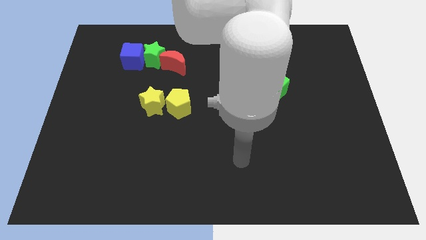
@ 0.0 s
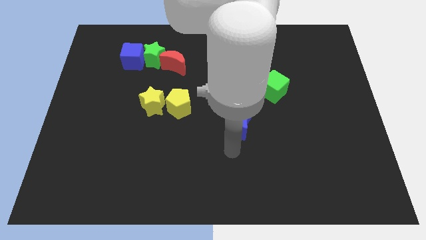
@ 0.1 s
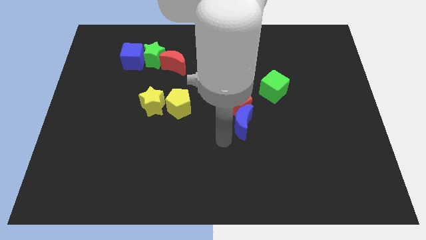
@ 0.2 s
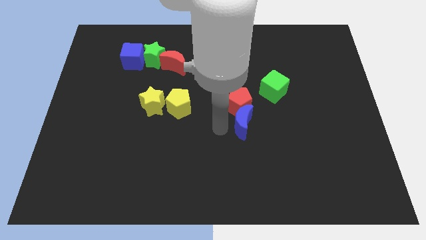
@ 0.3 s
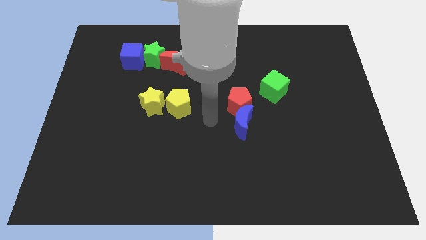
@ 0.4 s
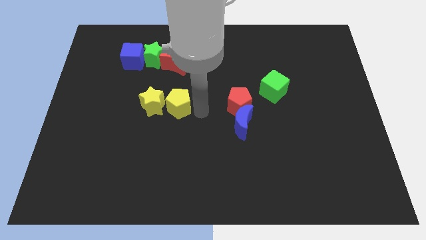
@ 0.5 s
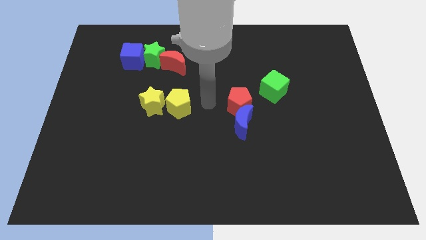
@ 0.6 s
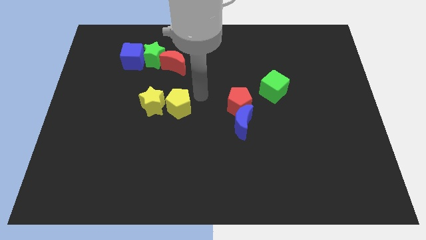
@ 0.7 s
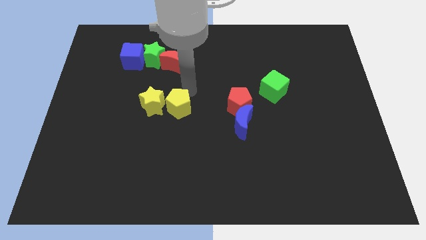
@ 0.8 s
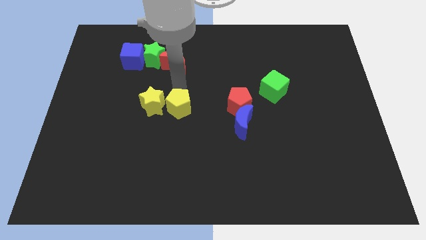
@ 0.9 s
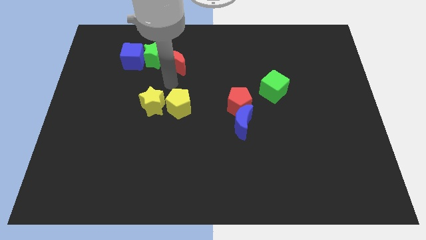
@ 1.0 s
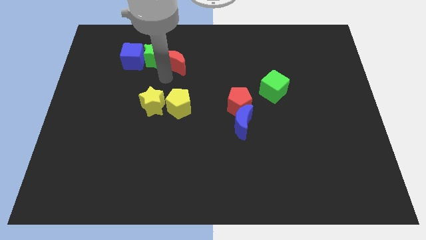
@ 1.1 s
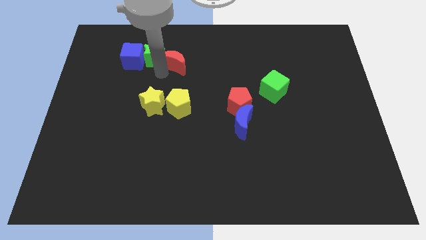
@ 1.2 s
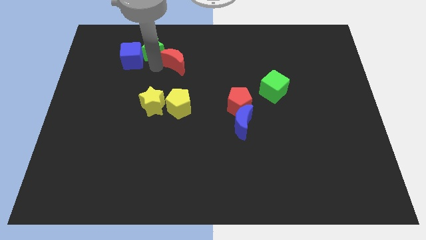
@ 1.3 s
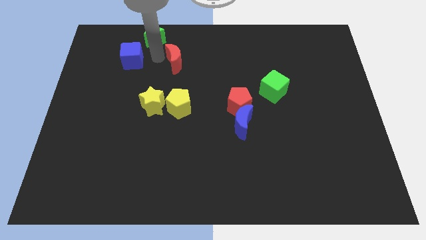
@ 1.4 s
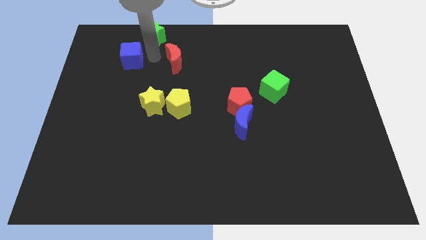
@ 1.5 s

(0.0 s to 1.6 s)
separate the blue cube from the green star

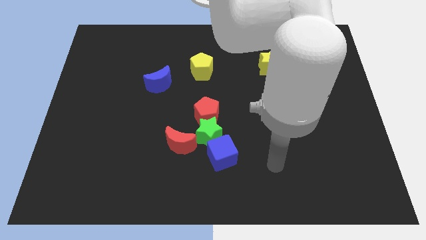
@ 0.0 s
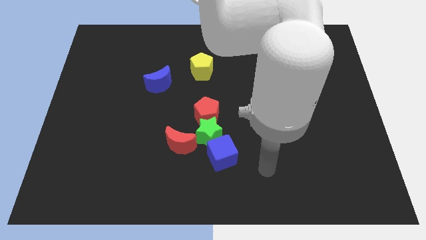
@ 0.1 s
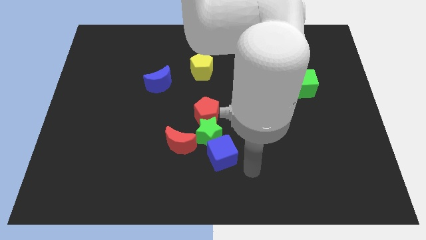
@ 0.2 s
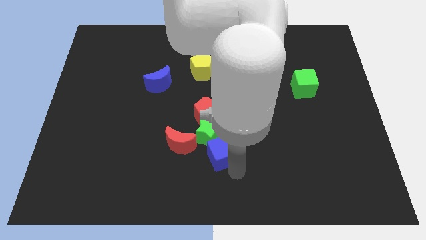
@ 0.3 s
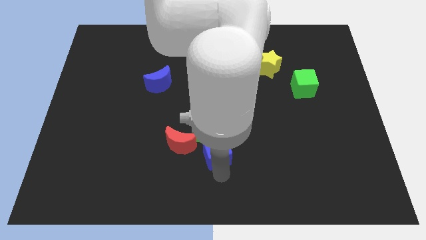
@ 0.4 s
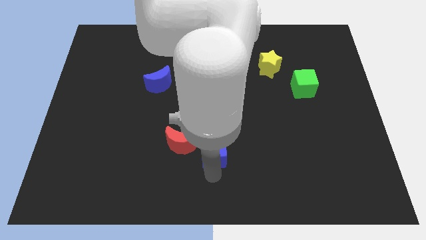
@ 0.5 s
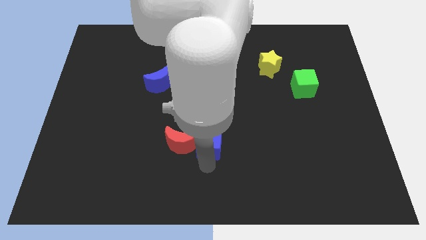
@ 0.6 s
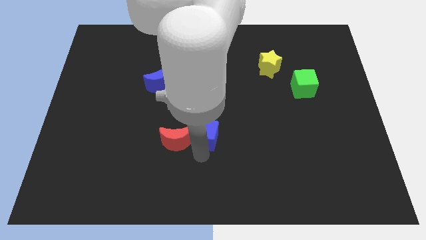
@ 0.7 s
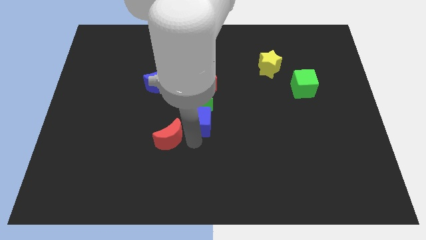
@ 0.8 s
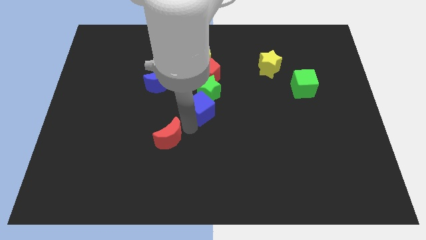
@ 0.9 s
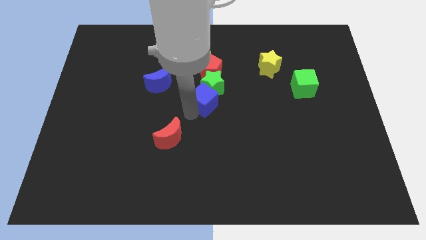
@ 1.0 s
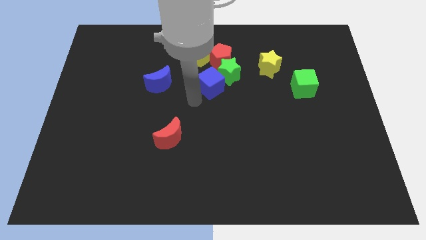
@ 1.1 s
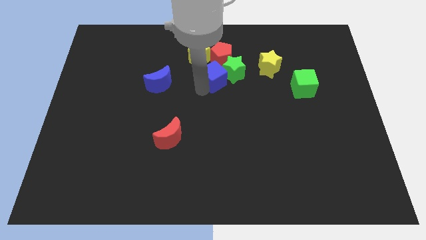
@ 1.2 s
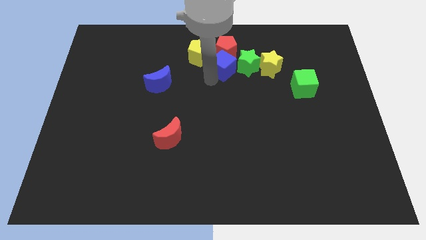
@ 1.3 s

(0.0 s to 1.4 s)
pull the green star apart from the red pentagon, blue cube, and red moon

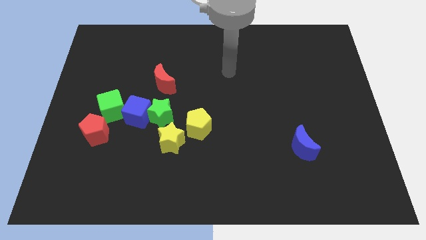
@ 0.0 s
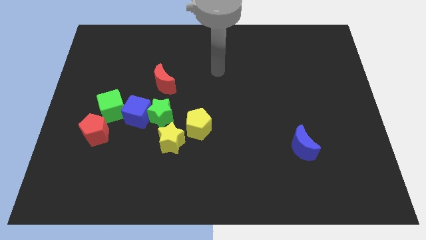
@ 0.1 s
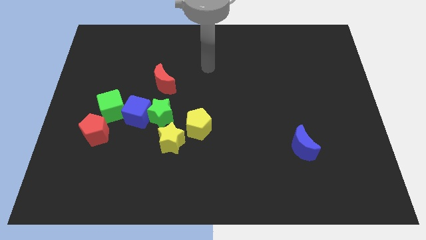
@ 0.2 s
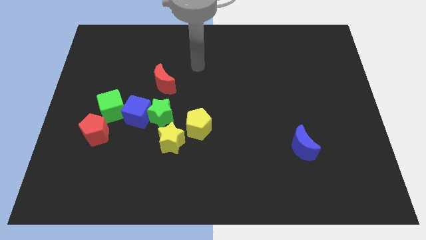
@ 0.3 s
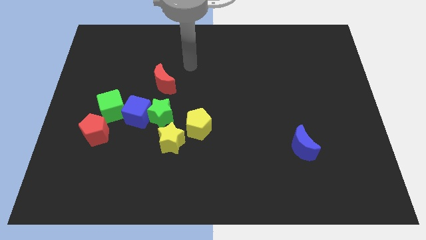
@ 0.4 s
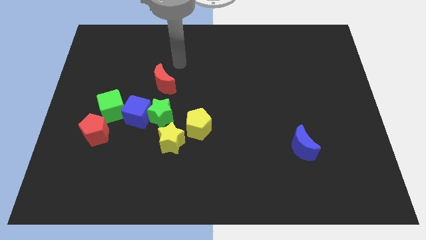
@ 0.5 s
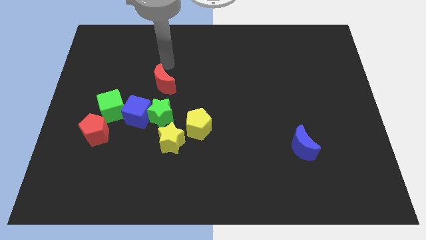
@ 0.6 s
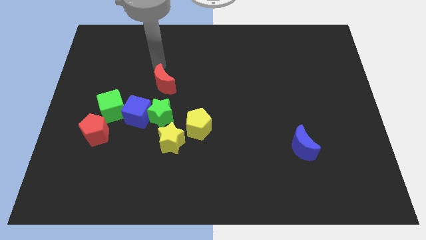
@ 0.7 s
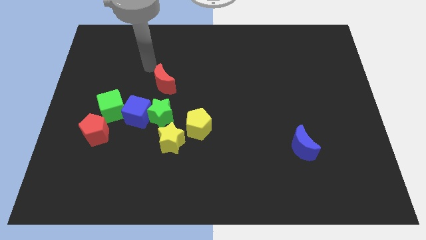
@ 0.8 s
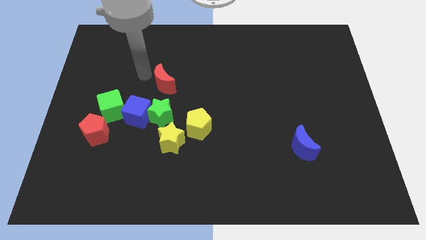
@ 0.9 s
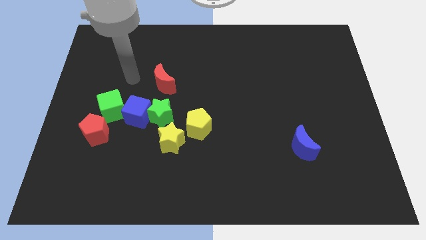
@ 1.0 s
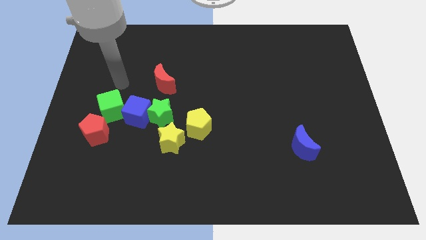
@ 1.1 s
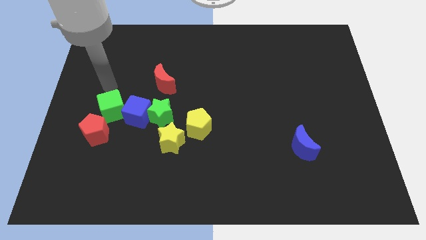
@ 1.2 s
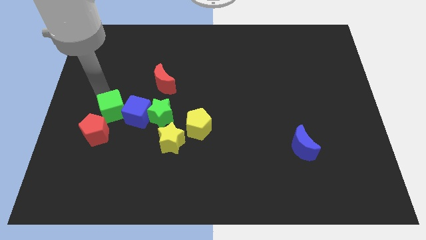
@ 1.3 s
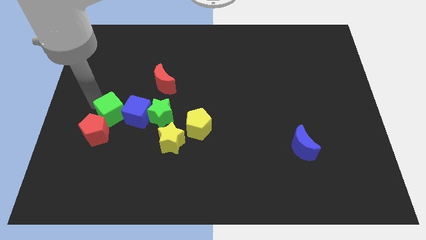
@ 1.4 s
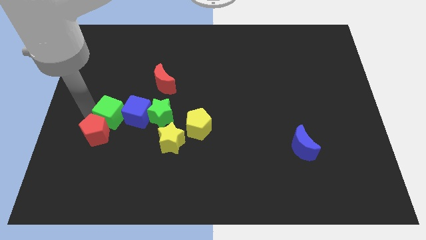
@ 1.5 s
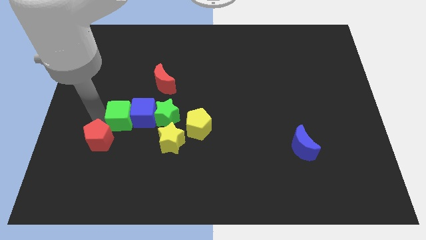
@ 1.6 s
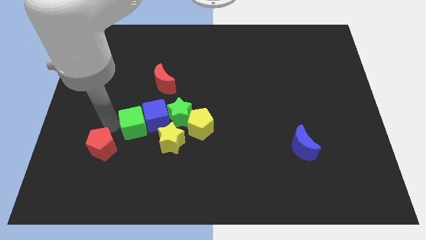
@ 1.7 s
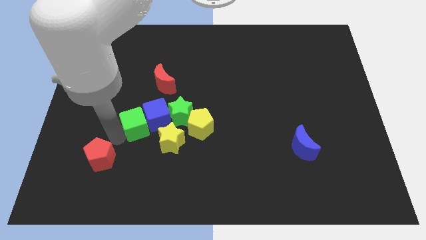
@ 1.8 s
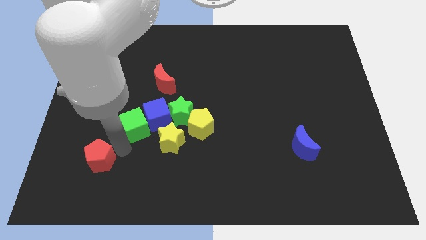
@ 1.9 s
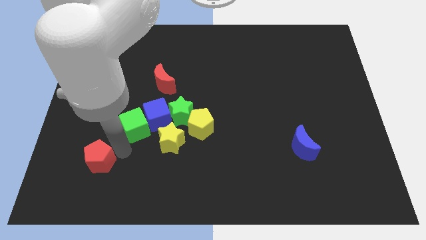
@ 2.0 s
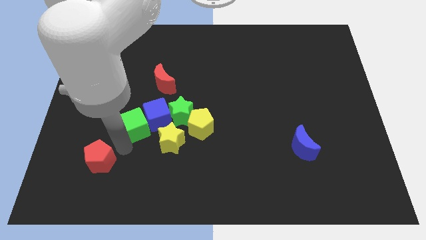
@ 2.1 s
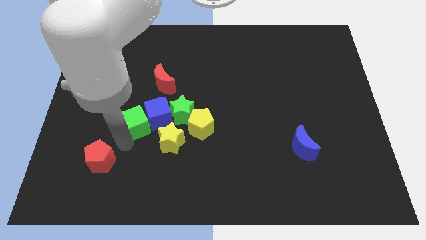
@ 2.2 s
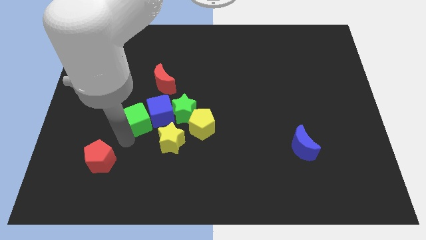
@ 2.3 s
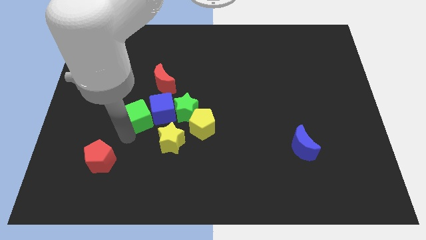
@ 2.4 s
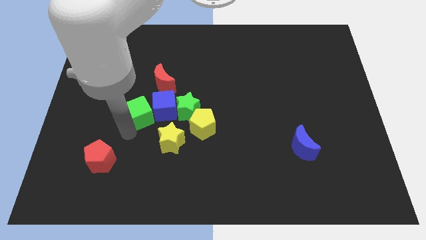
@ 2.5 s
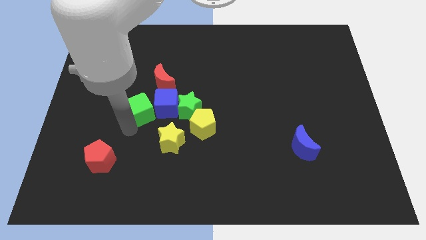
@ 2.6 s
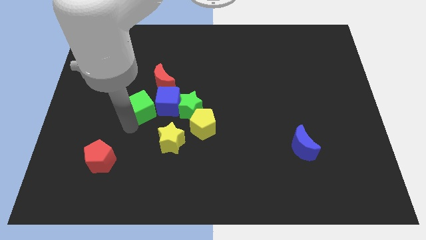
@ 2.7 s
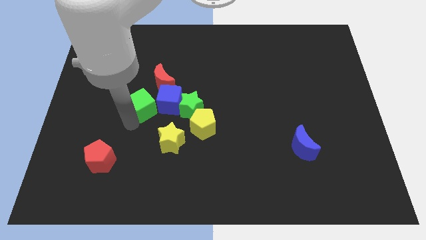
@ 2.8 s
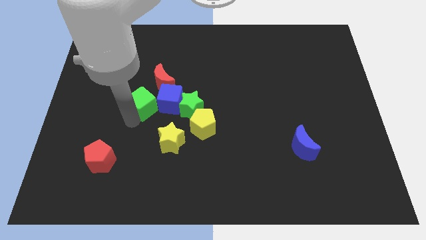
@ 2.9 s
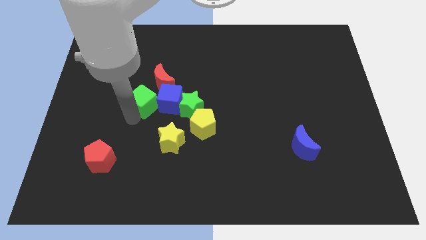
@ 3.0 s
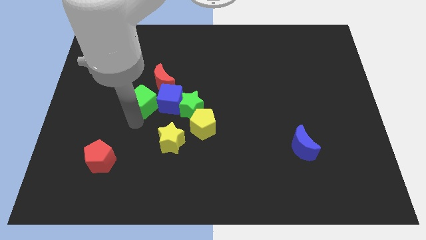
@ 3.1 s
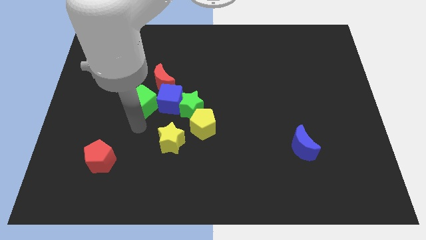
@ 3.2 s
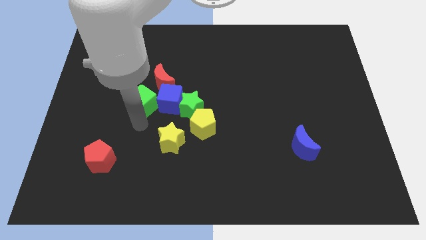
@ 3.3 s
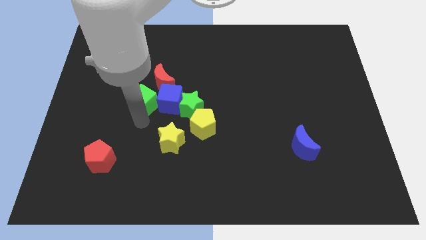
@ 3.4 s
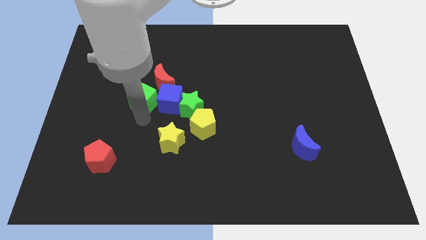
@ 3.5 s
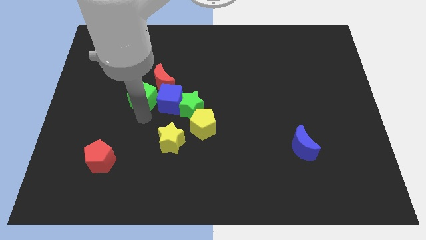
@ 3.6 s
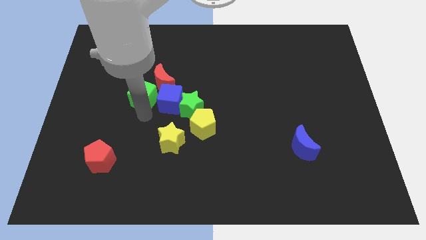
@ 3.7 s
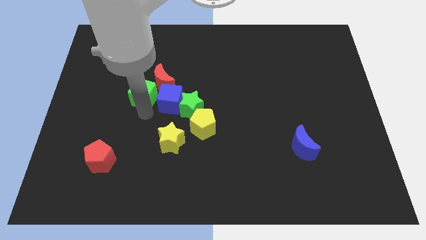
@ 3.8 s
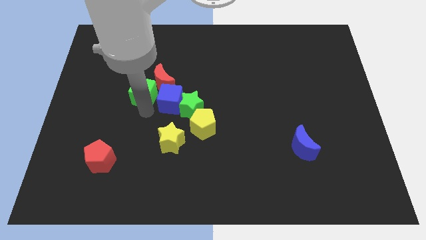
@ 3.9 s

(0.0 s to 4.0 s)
move the green cube away from the blue cube and red pentagon

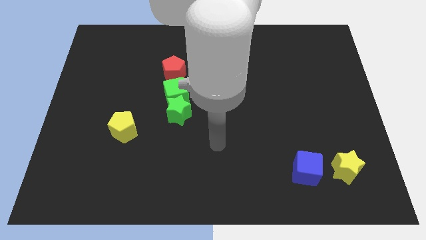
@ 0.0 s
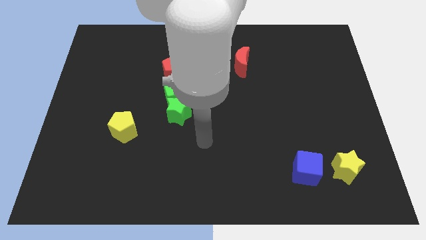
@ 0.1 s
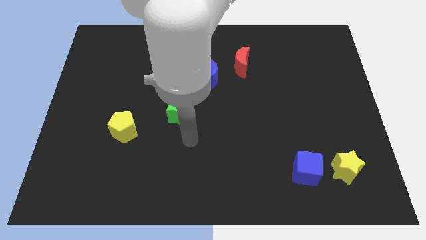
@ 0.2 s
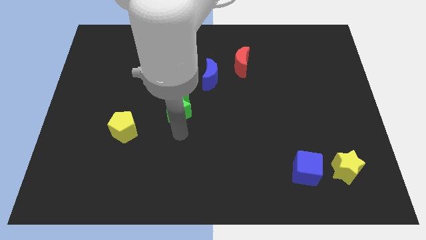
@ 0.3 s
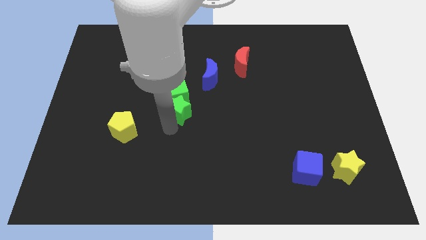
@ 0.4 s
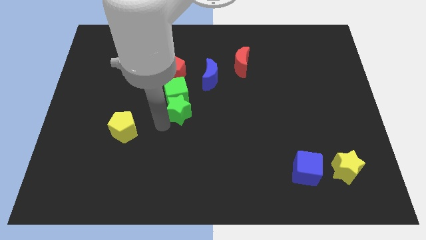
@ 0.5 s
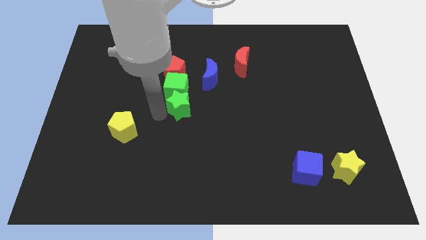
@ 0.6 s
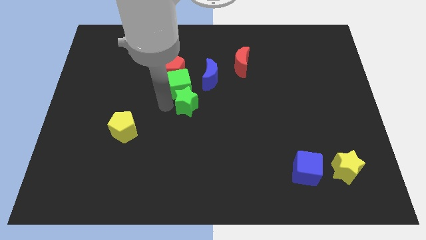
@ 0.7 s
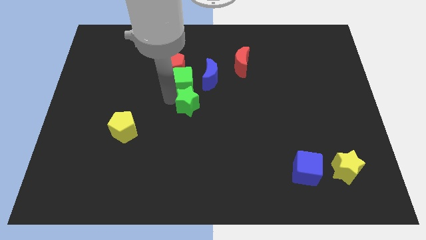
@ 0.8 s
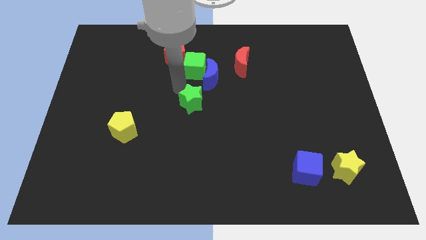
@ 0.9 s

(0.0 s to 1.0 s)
move the green star away from the green cube

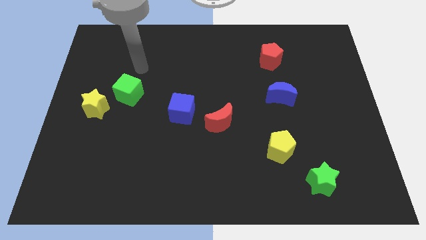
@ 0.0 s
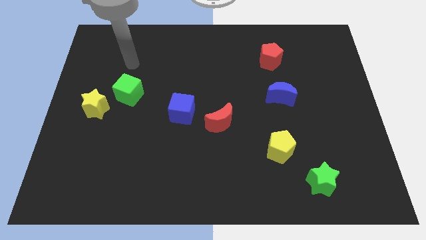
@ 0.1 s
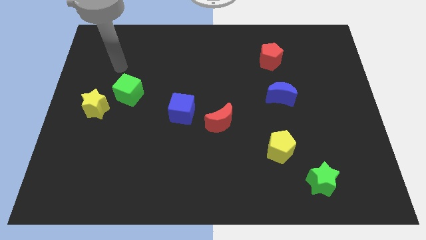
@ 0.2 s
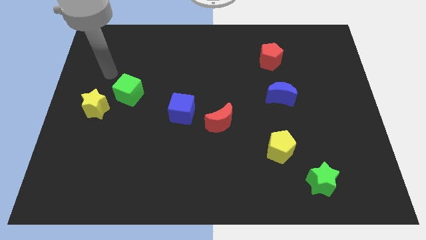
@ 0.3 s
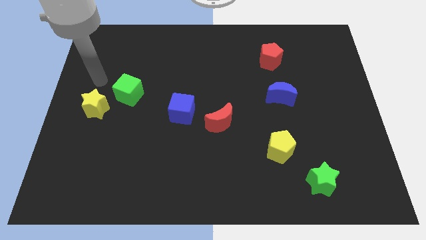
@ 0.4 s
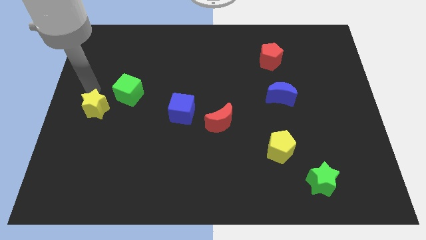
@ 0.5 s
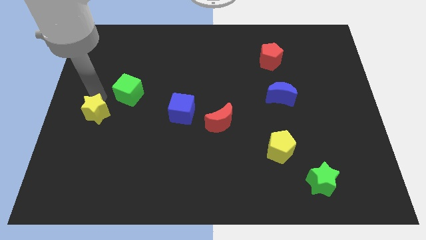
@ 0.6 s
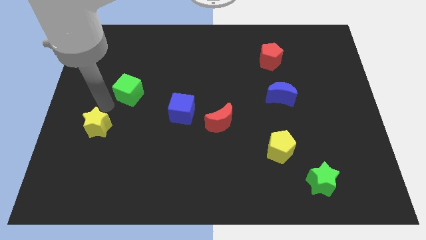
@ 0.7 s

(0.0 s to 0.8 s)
move the green cube away from the yellow star

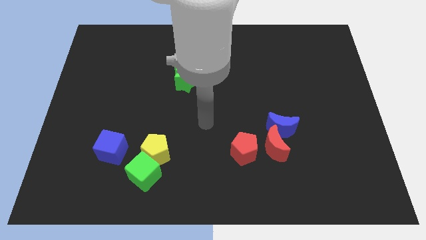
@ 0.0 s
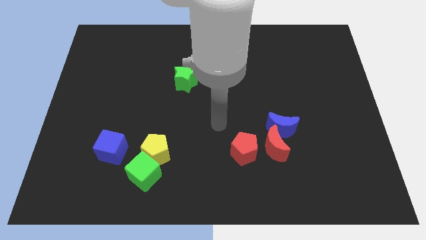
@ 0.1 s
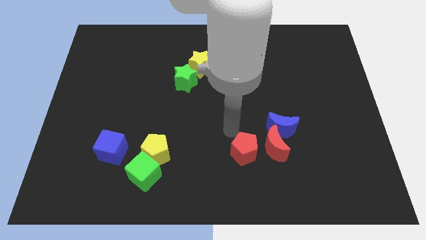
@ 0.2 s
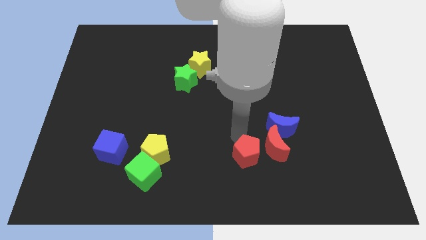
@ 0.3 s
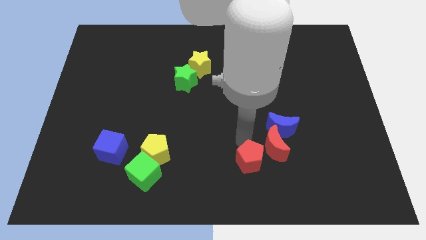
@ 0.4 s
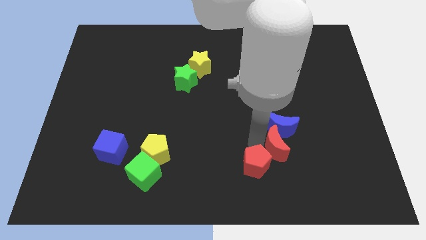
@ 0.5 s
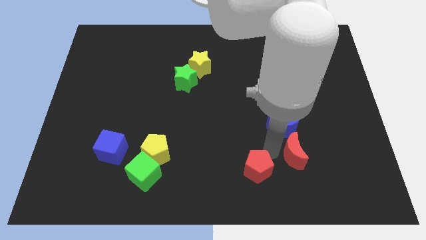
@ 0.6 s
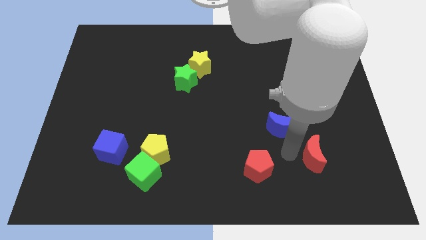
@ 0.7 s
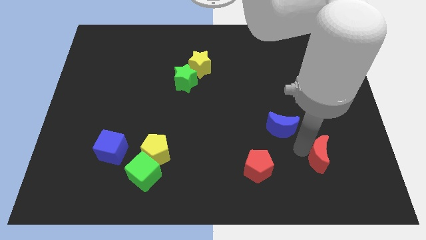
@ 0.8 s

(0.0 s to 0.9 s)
move the blue moon away from the red moon
